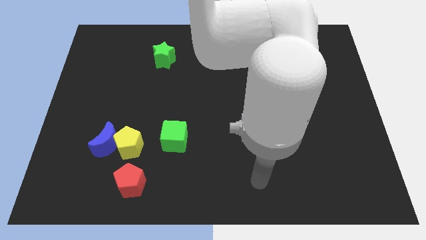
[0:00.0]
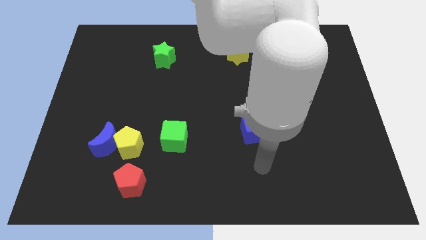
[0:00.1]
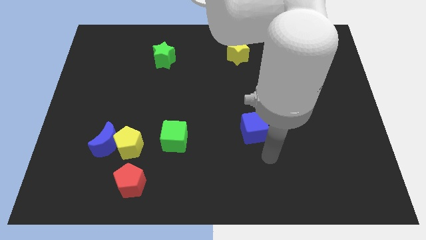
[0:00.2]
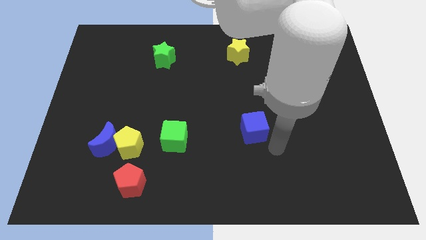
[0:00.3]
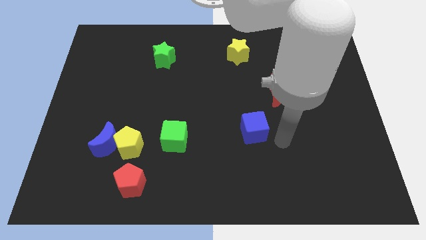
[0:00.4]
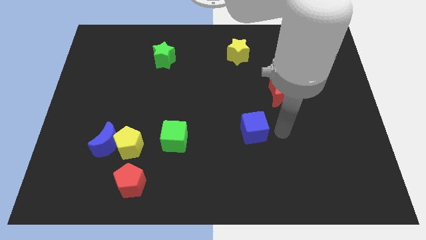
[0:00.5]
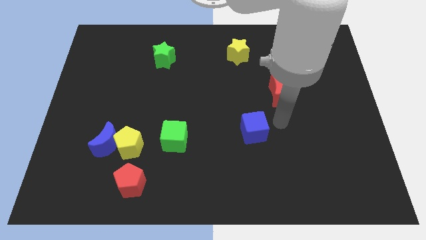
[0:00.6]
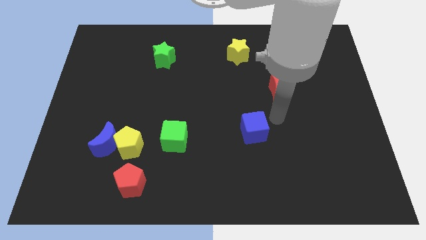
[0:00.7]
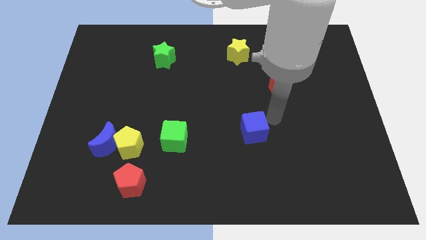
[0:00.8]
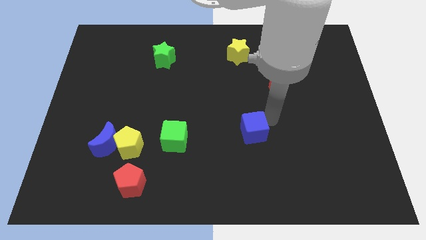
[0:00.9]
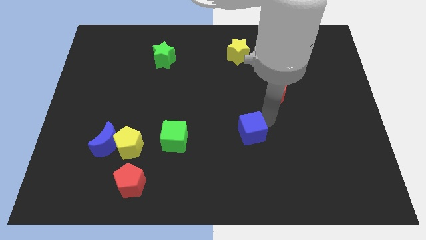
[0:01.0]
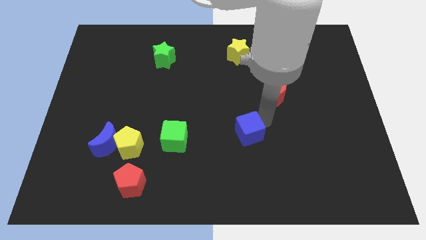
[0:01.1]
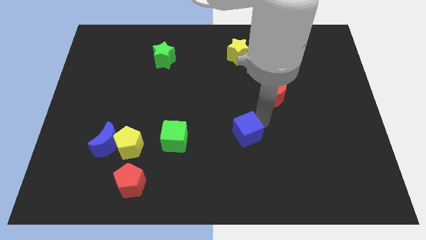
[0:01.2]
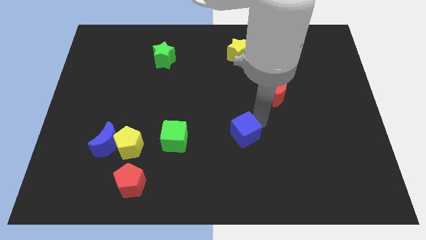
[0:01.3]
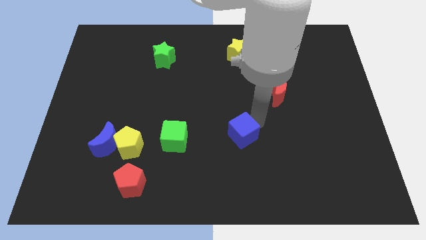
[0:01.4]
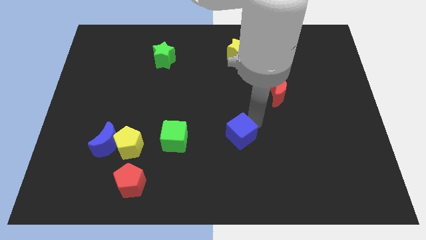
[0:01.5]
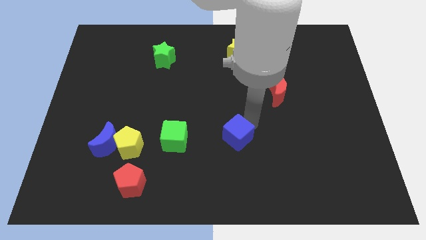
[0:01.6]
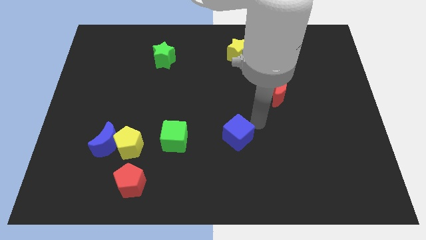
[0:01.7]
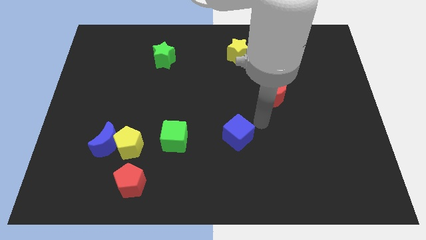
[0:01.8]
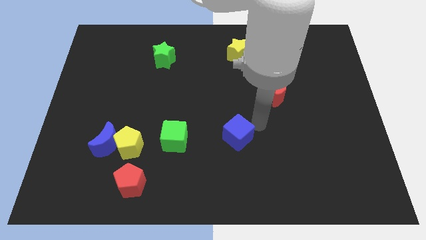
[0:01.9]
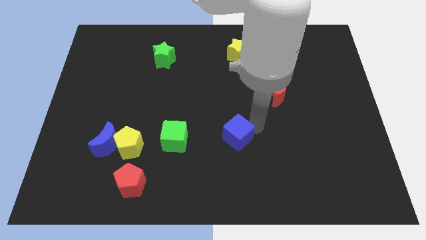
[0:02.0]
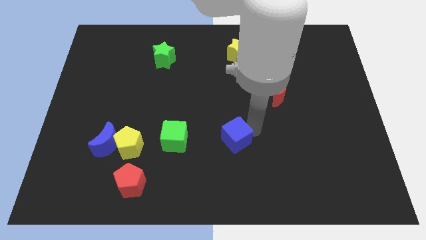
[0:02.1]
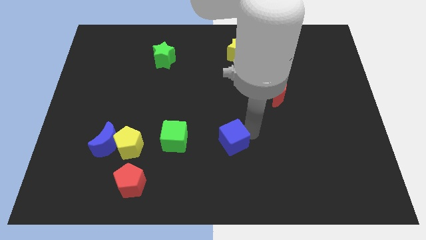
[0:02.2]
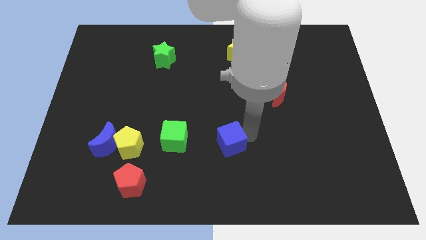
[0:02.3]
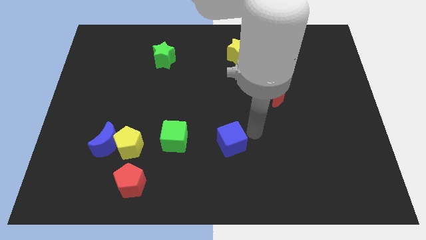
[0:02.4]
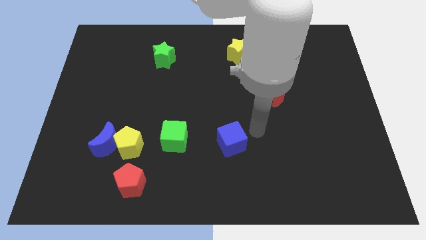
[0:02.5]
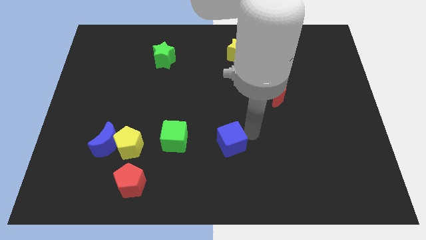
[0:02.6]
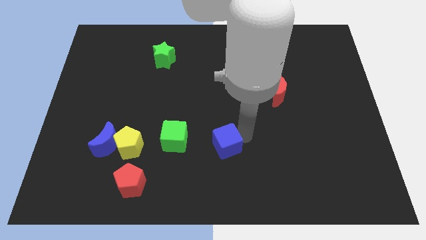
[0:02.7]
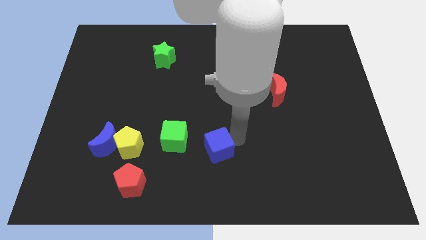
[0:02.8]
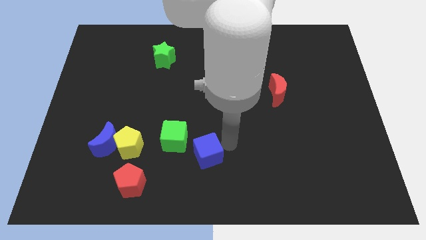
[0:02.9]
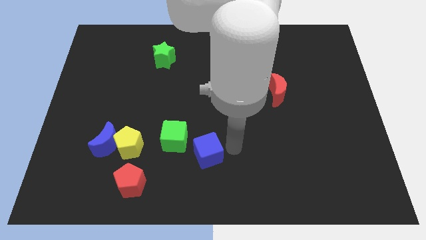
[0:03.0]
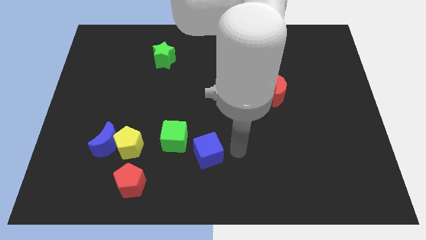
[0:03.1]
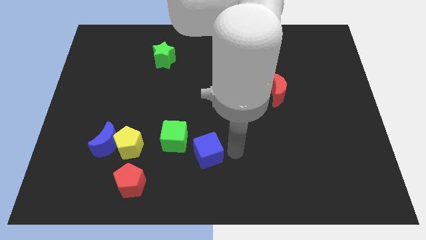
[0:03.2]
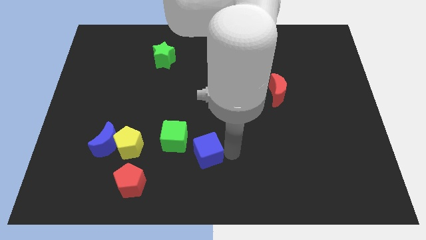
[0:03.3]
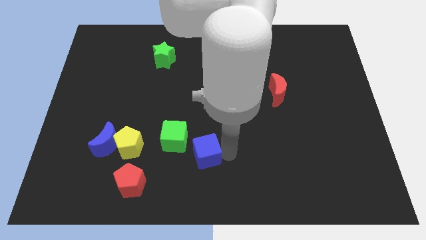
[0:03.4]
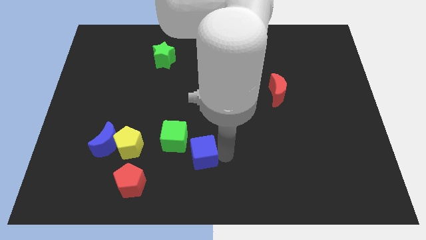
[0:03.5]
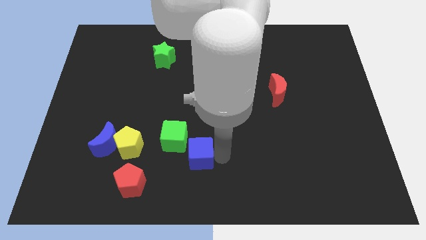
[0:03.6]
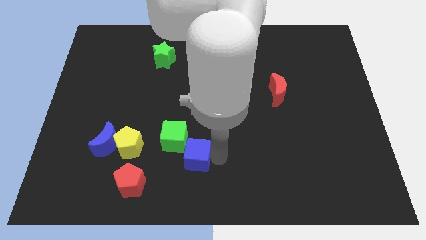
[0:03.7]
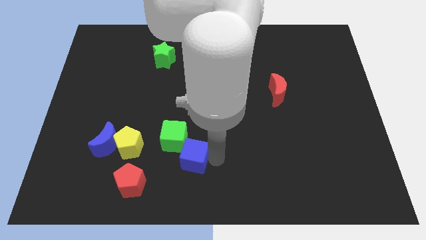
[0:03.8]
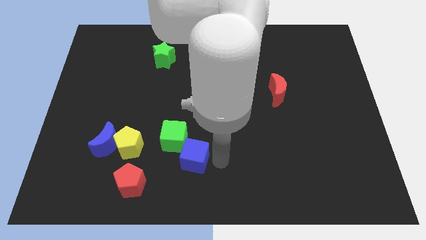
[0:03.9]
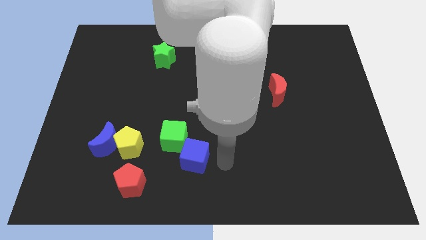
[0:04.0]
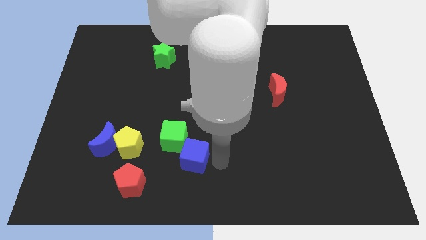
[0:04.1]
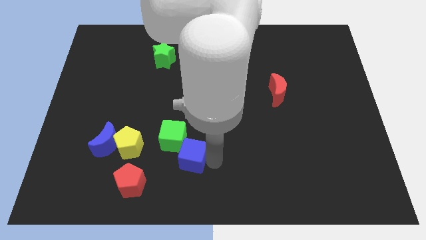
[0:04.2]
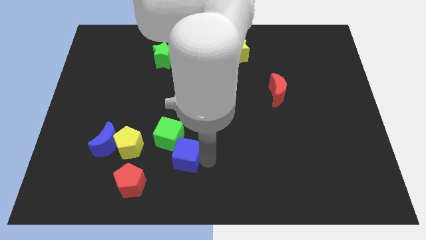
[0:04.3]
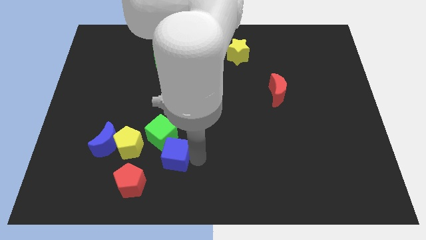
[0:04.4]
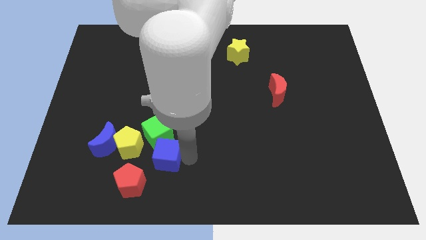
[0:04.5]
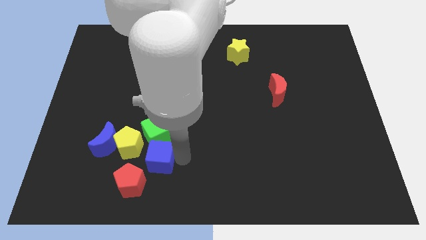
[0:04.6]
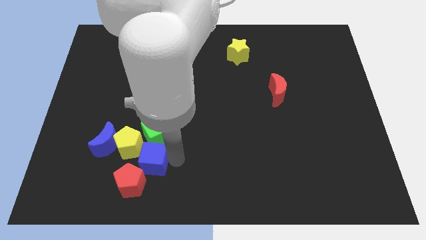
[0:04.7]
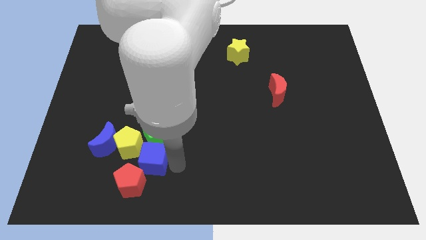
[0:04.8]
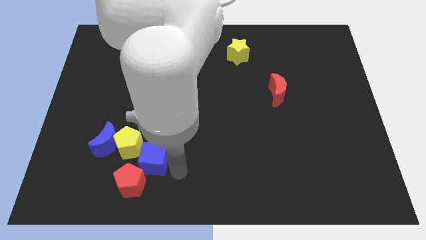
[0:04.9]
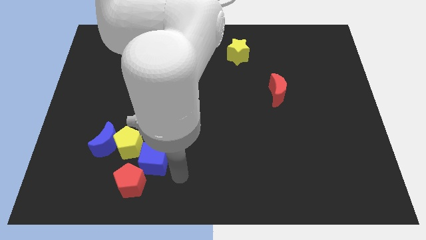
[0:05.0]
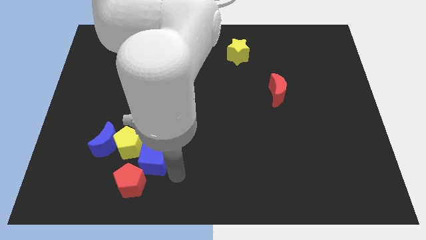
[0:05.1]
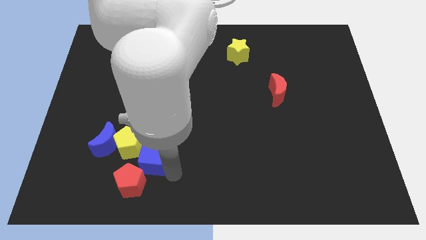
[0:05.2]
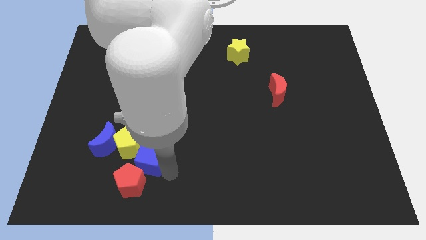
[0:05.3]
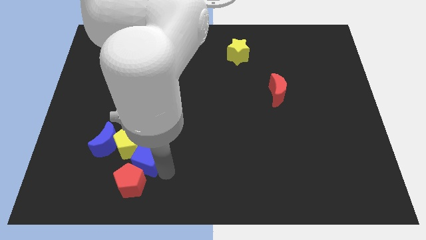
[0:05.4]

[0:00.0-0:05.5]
move the blue cube next to the yellow pentagon

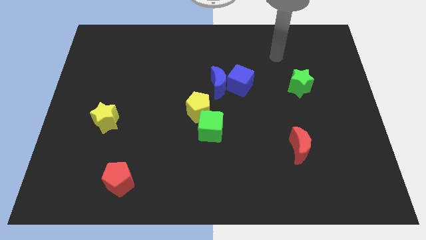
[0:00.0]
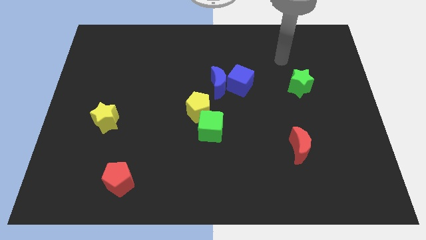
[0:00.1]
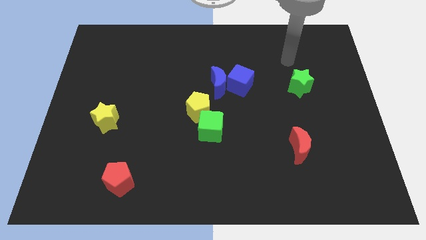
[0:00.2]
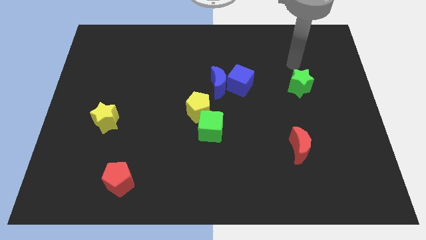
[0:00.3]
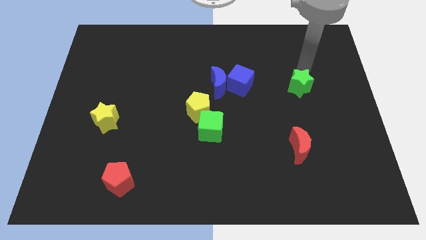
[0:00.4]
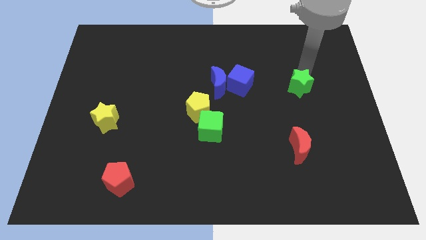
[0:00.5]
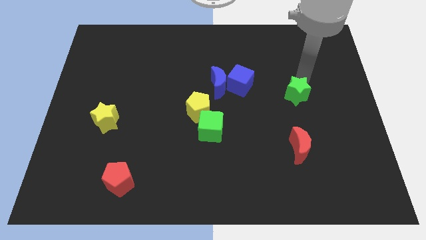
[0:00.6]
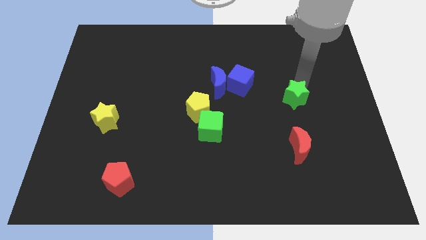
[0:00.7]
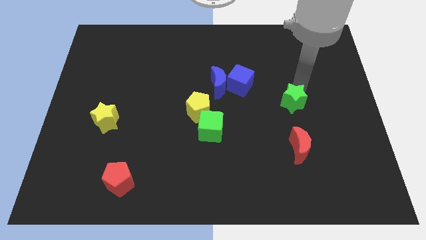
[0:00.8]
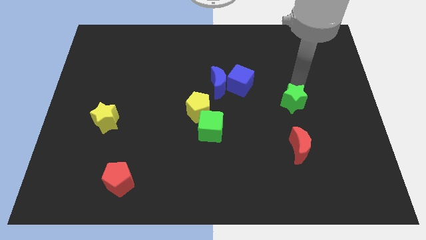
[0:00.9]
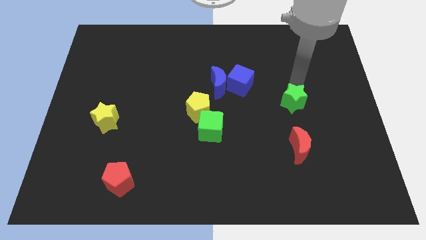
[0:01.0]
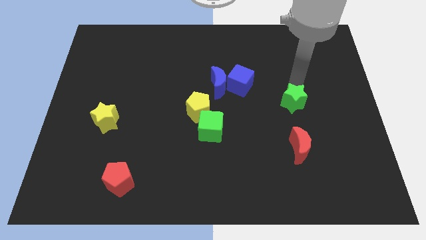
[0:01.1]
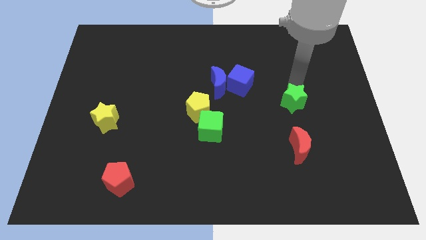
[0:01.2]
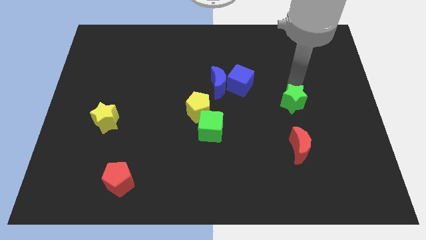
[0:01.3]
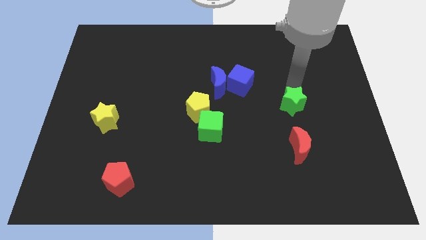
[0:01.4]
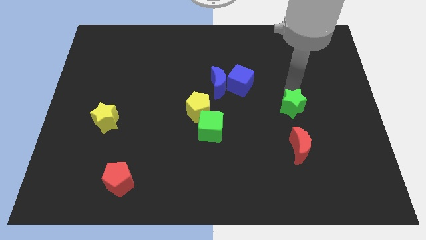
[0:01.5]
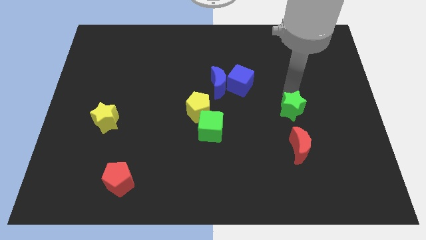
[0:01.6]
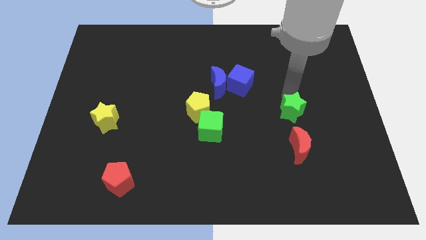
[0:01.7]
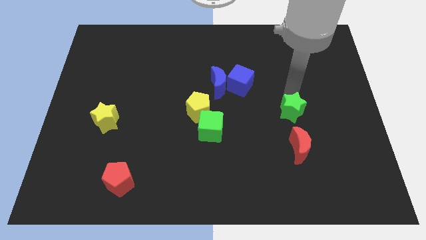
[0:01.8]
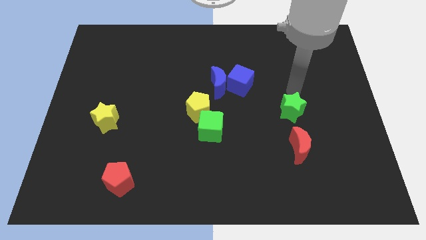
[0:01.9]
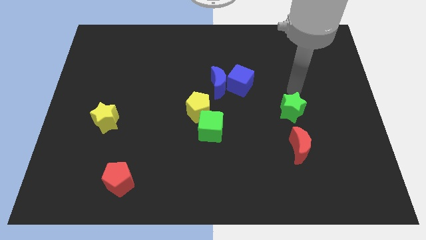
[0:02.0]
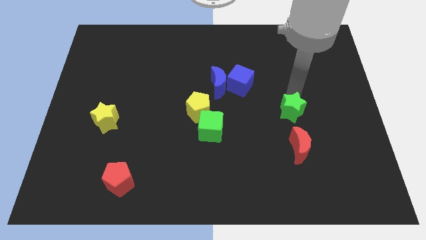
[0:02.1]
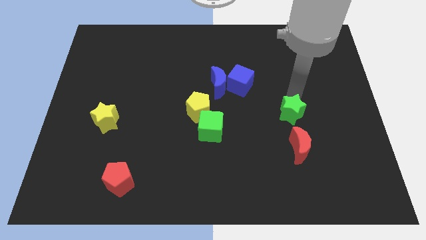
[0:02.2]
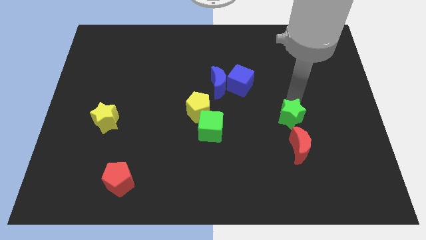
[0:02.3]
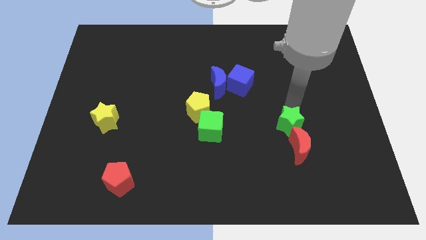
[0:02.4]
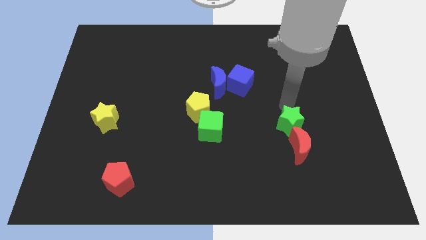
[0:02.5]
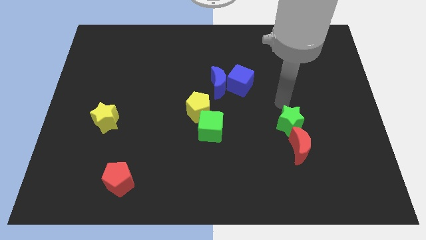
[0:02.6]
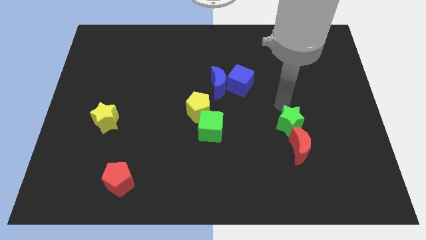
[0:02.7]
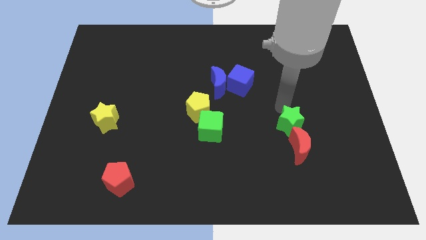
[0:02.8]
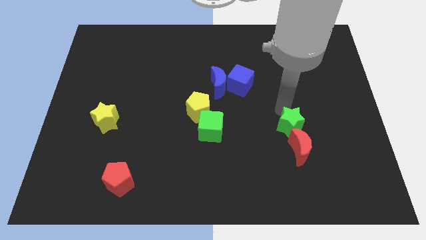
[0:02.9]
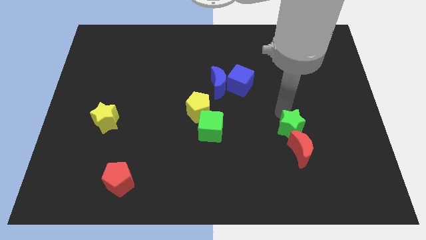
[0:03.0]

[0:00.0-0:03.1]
push the green star next to the red moon
